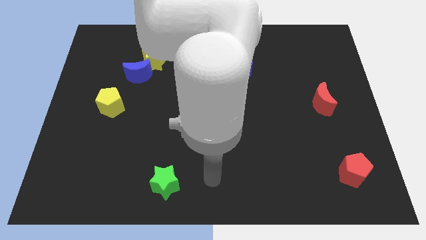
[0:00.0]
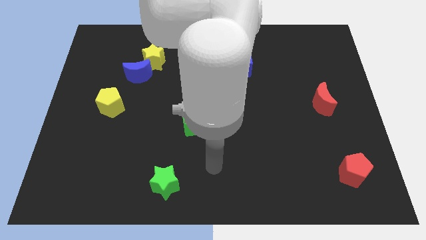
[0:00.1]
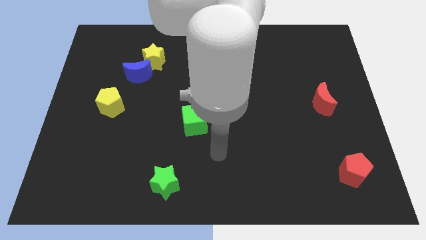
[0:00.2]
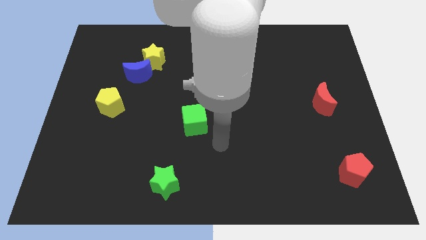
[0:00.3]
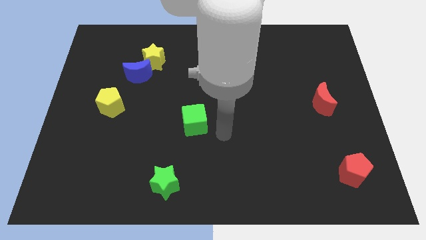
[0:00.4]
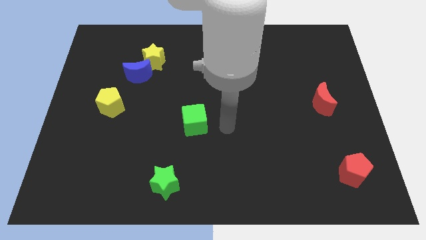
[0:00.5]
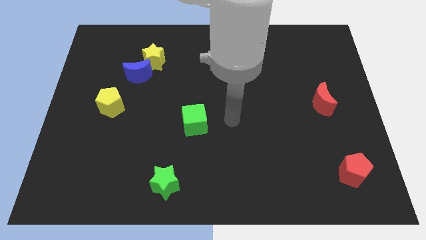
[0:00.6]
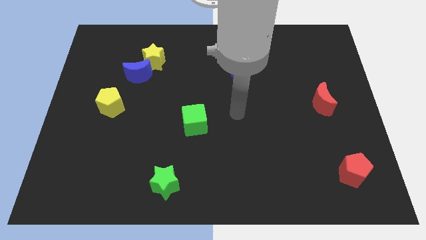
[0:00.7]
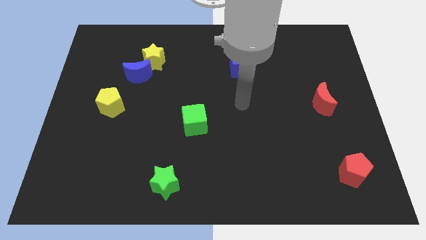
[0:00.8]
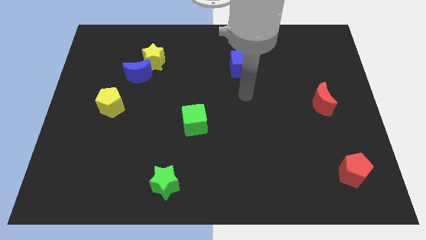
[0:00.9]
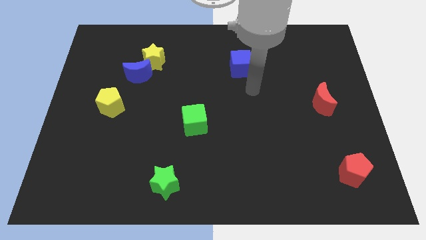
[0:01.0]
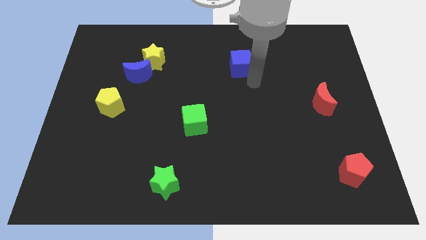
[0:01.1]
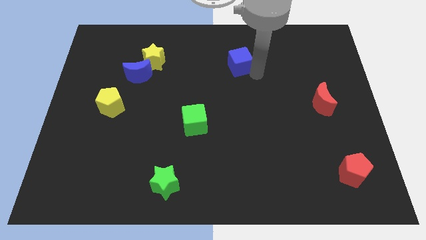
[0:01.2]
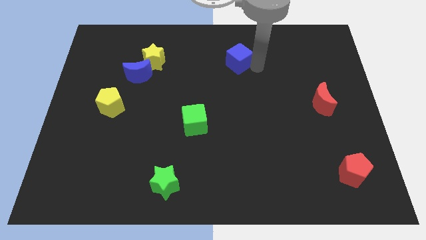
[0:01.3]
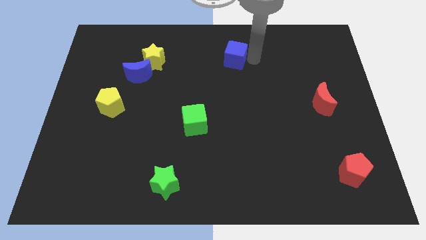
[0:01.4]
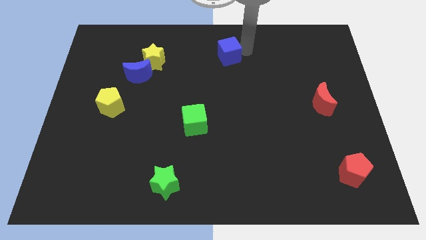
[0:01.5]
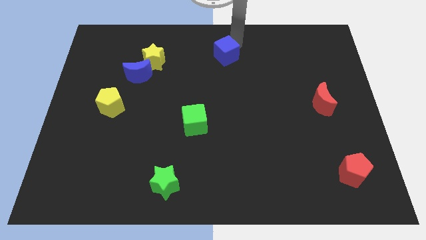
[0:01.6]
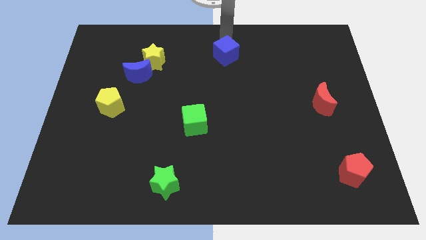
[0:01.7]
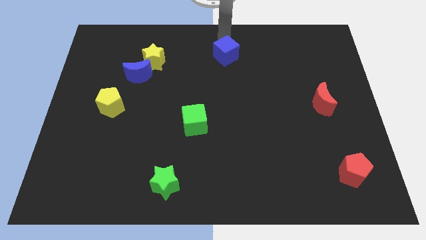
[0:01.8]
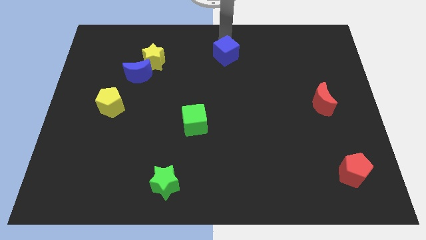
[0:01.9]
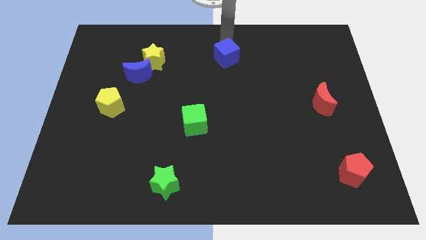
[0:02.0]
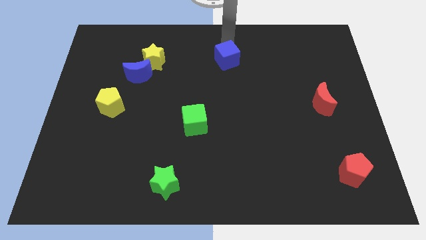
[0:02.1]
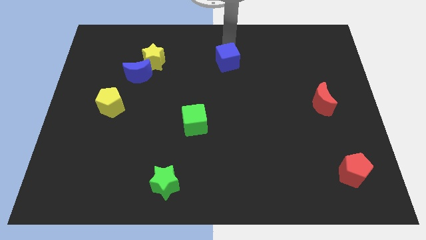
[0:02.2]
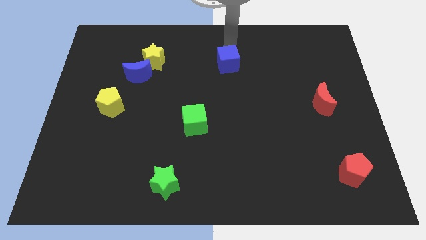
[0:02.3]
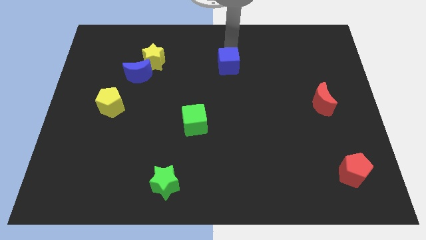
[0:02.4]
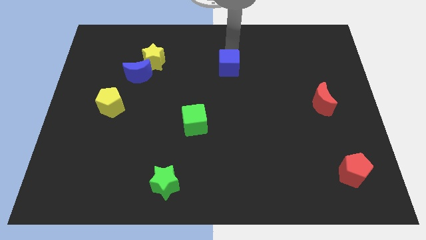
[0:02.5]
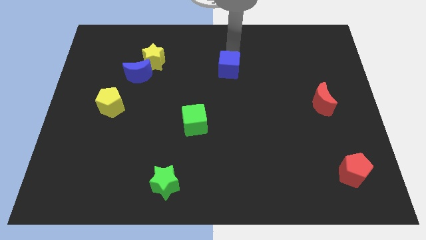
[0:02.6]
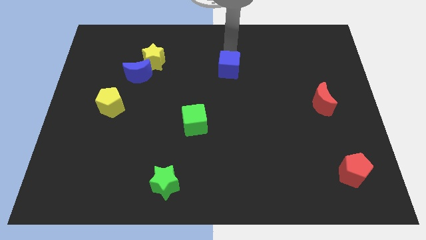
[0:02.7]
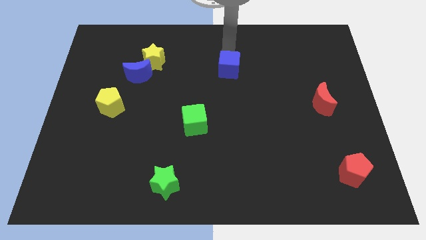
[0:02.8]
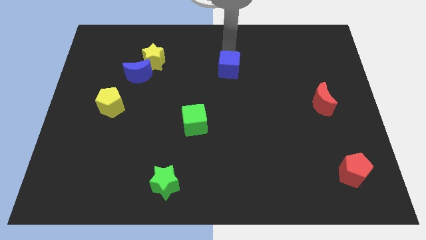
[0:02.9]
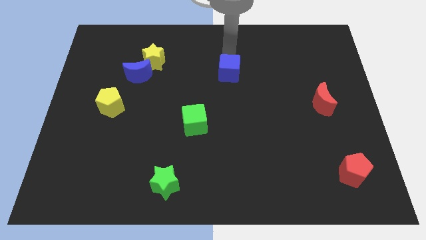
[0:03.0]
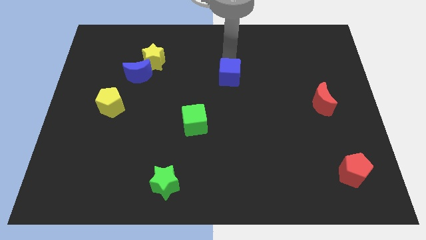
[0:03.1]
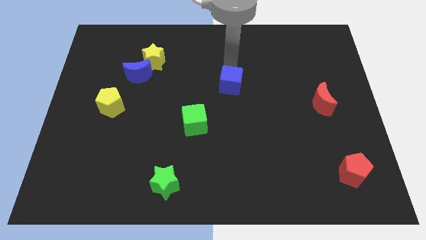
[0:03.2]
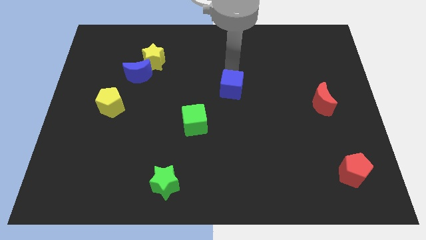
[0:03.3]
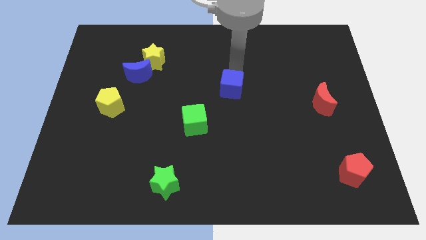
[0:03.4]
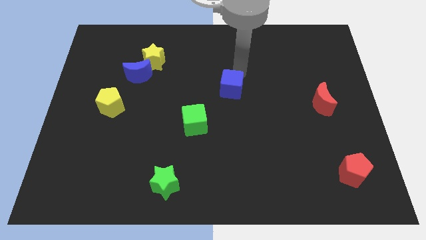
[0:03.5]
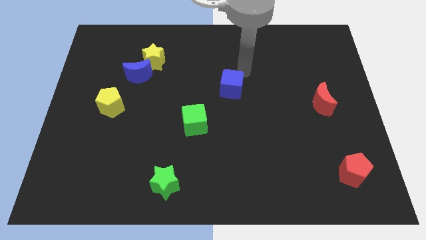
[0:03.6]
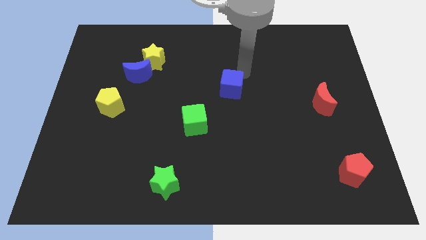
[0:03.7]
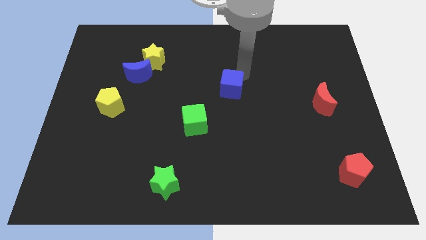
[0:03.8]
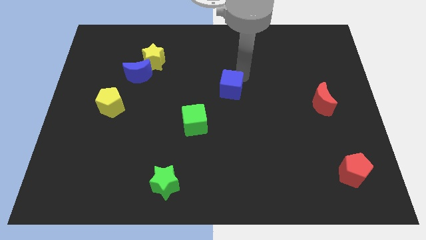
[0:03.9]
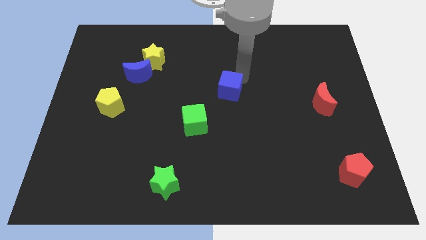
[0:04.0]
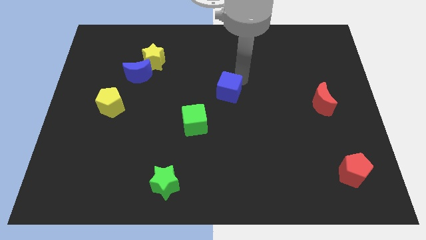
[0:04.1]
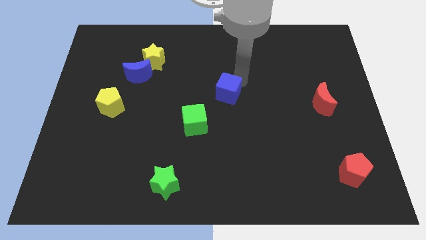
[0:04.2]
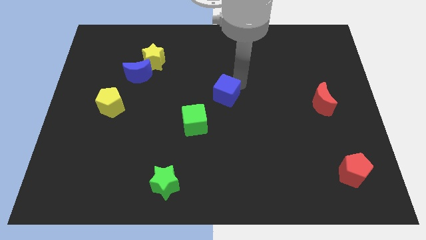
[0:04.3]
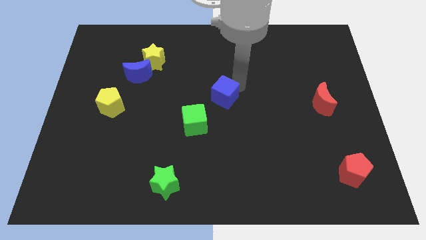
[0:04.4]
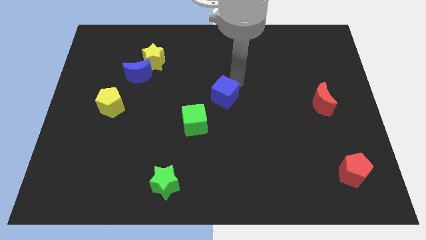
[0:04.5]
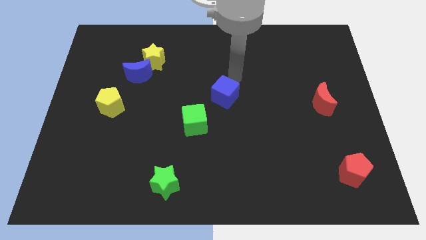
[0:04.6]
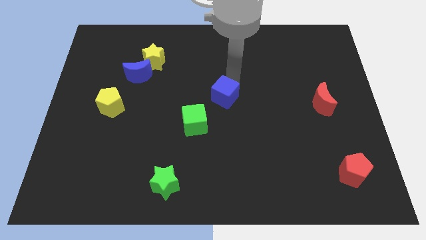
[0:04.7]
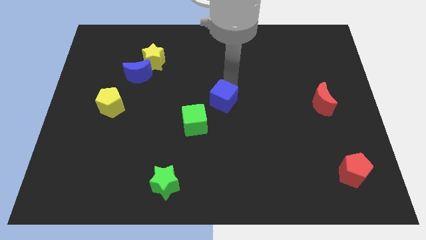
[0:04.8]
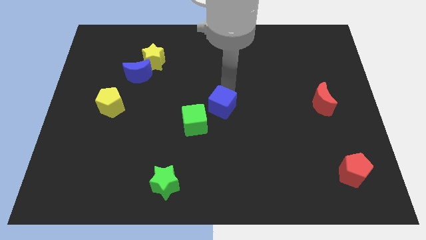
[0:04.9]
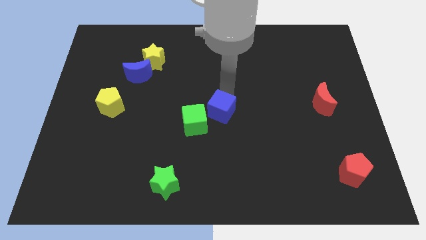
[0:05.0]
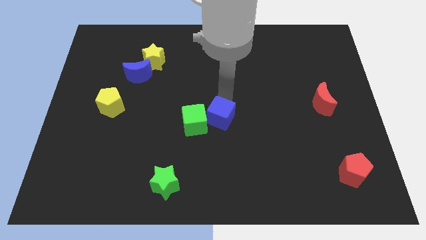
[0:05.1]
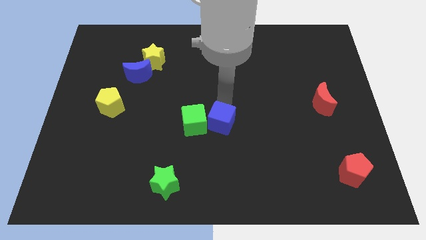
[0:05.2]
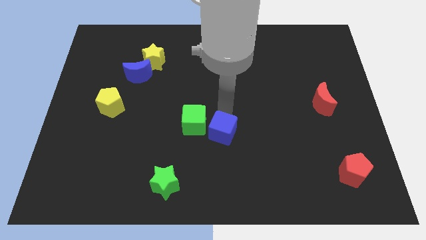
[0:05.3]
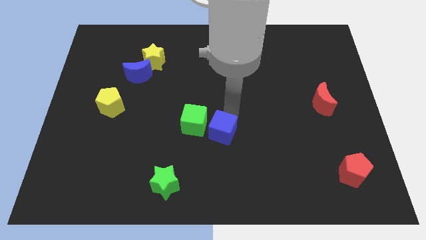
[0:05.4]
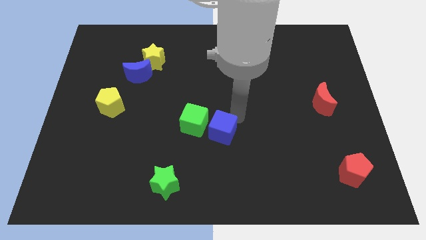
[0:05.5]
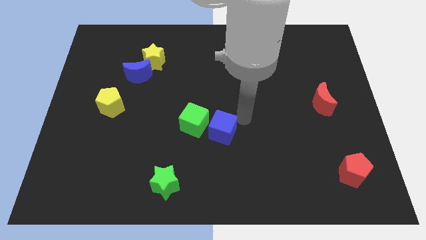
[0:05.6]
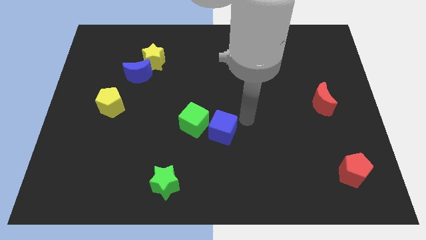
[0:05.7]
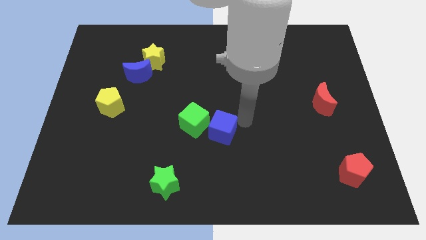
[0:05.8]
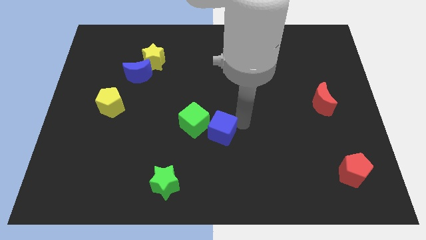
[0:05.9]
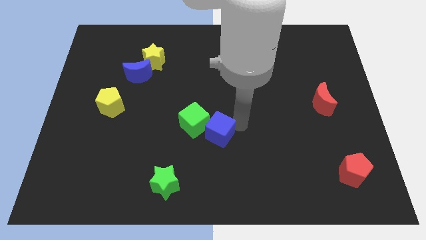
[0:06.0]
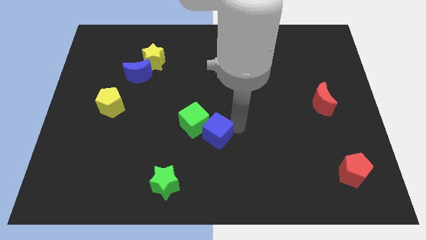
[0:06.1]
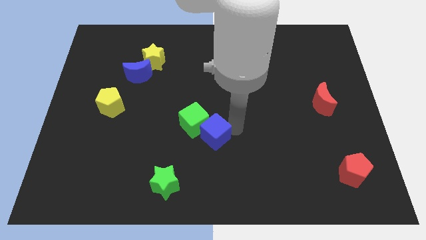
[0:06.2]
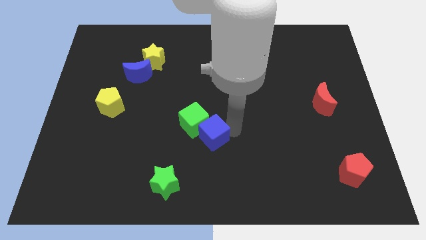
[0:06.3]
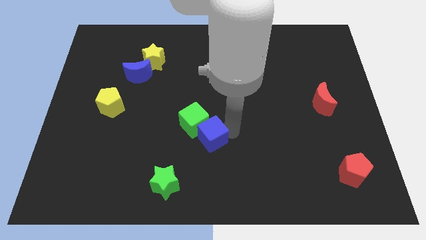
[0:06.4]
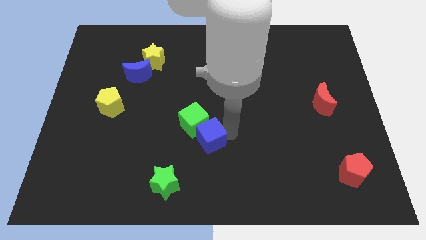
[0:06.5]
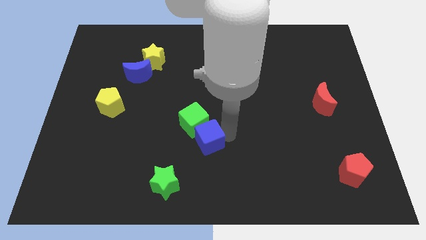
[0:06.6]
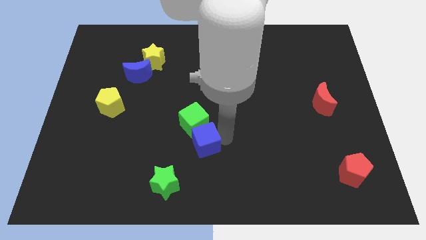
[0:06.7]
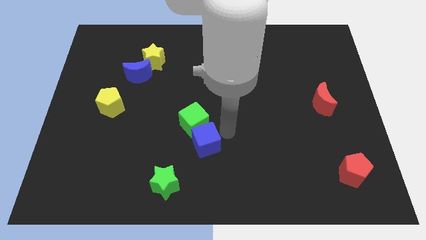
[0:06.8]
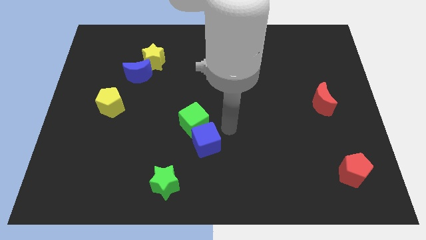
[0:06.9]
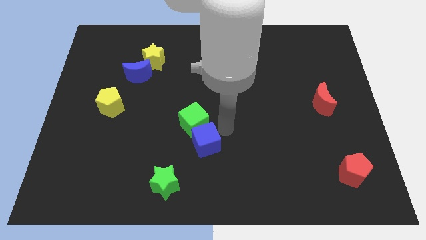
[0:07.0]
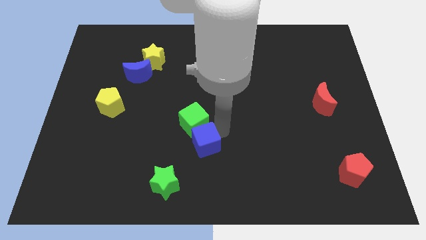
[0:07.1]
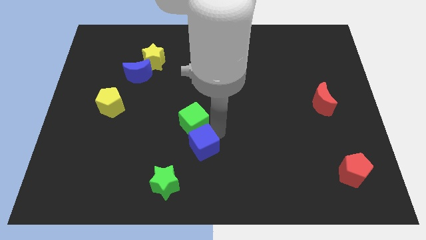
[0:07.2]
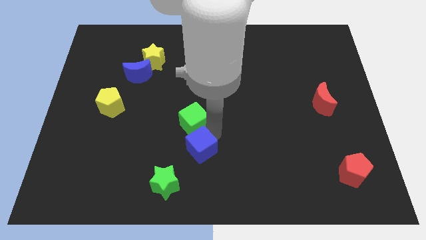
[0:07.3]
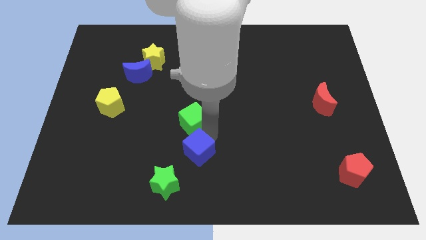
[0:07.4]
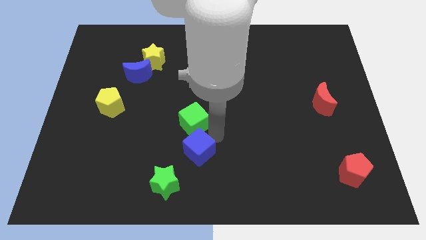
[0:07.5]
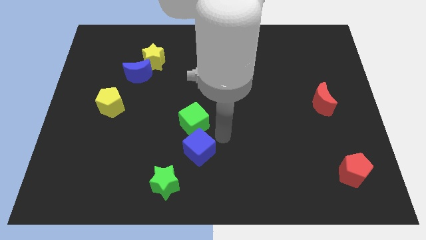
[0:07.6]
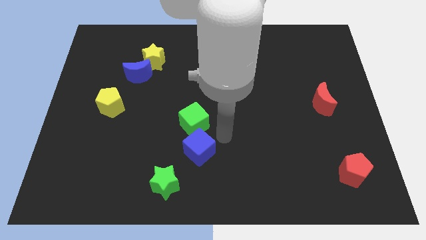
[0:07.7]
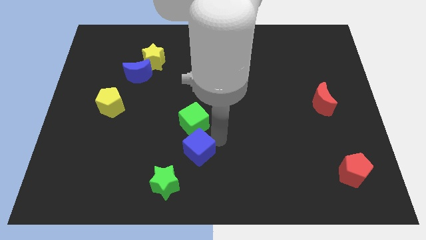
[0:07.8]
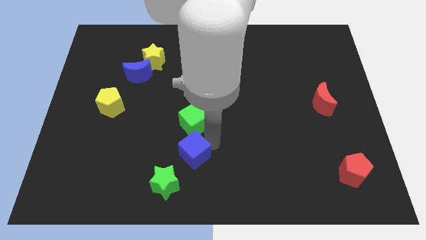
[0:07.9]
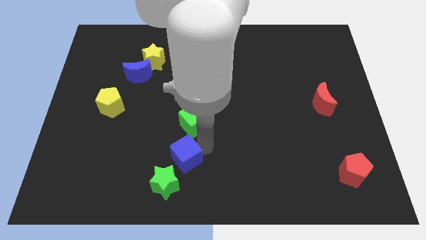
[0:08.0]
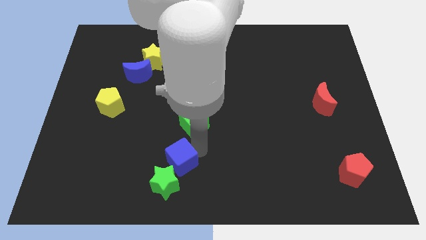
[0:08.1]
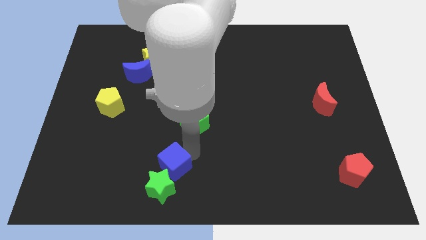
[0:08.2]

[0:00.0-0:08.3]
push the blue cube to the green star
